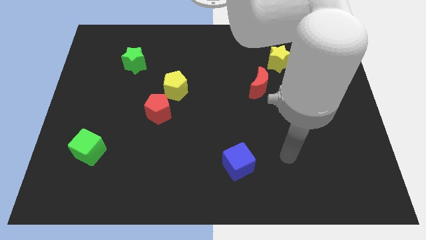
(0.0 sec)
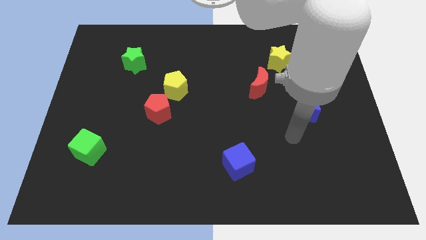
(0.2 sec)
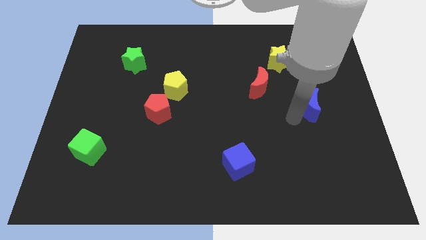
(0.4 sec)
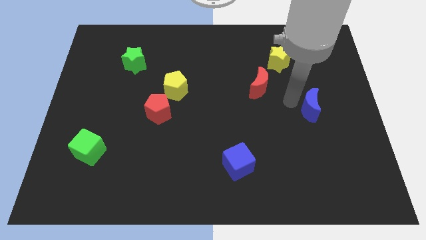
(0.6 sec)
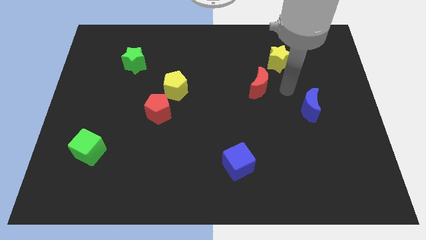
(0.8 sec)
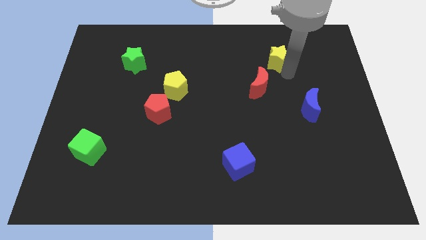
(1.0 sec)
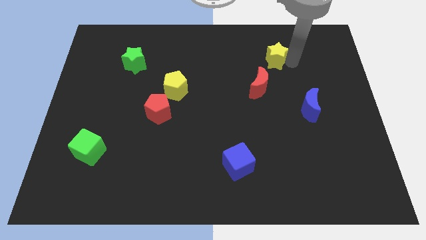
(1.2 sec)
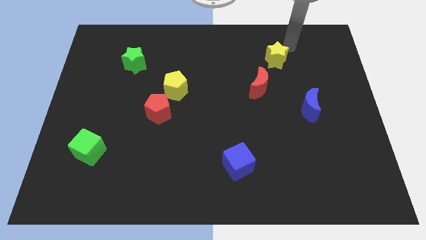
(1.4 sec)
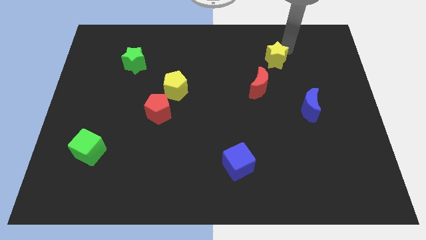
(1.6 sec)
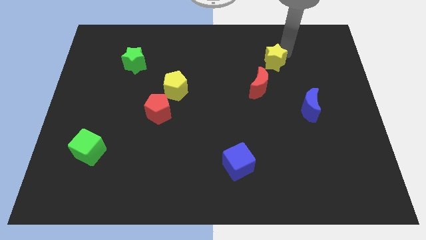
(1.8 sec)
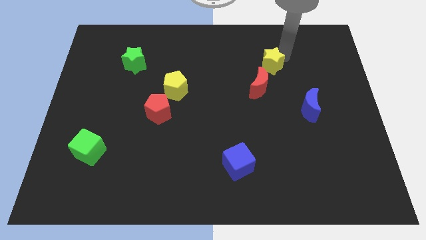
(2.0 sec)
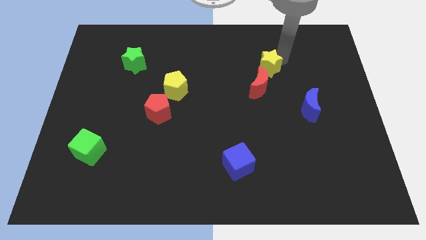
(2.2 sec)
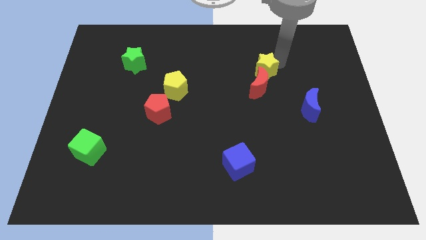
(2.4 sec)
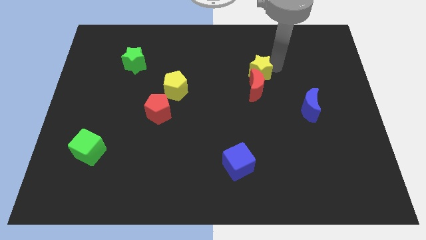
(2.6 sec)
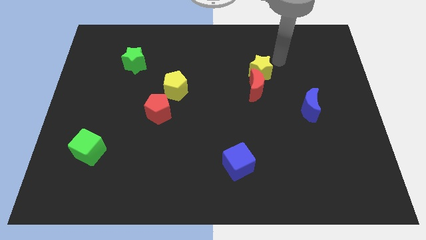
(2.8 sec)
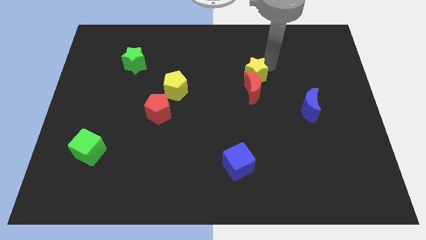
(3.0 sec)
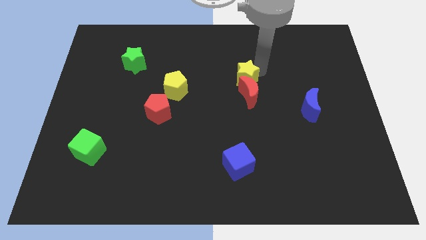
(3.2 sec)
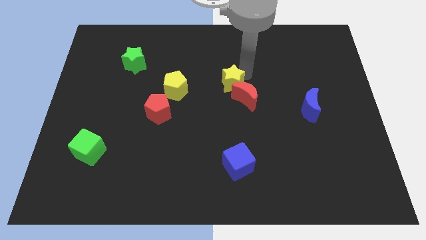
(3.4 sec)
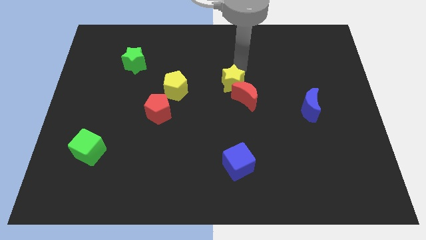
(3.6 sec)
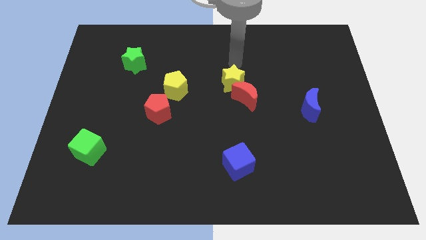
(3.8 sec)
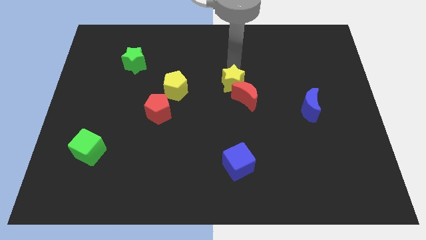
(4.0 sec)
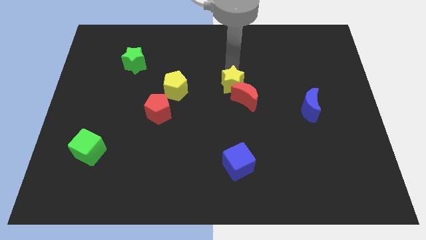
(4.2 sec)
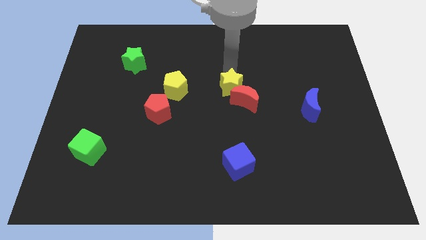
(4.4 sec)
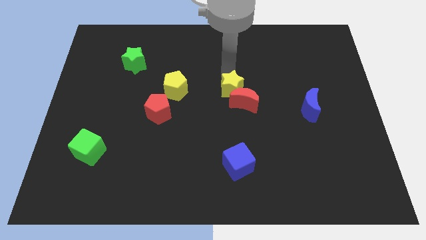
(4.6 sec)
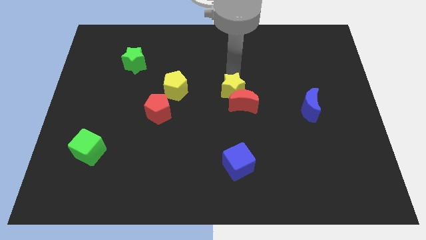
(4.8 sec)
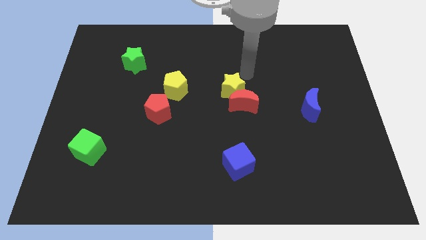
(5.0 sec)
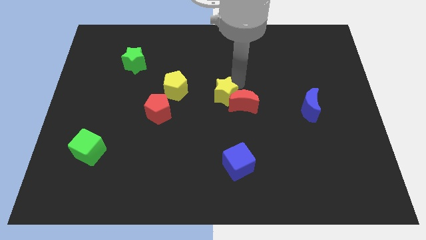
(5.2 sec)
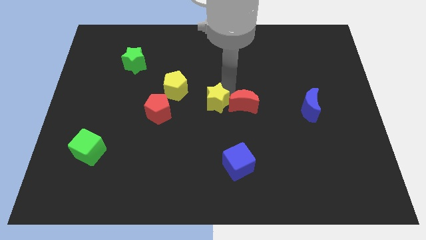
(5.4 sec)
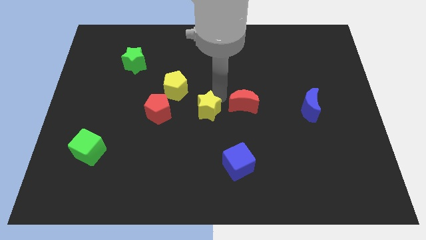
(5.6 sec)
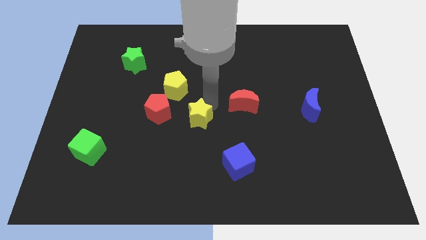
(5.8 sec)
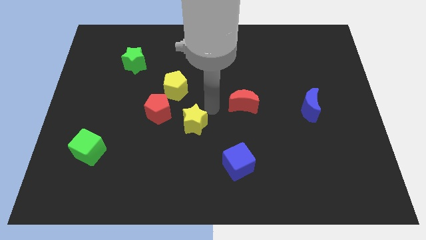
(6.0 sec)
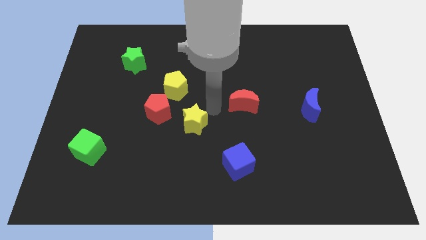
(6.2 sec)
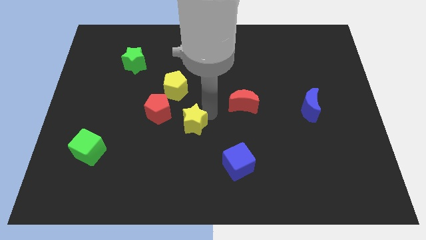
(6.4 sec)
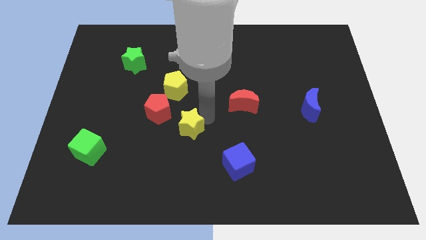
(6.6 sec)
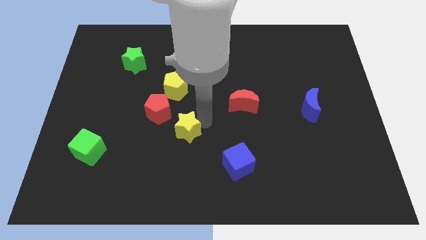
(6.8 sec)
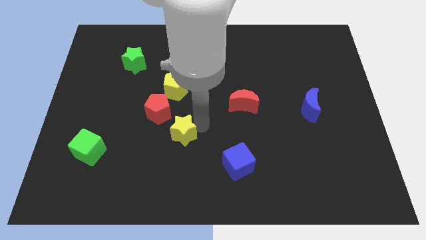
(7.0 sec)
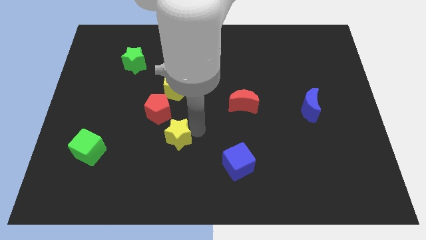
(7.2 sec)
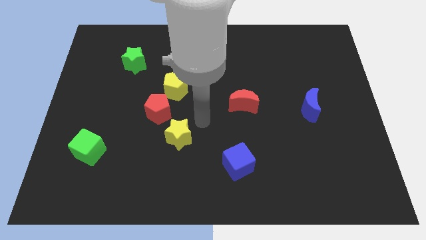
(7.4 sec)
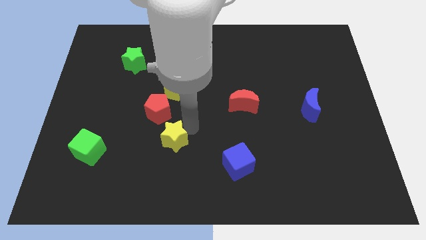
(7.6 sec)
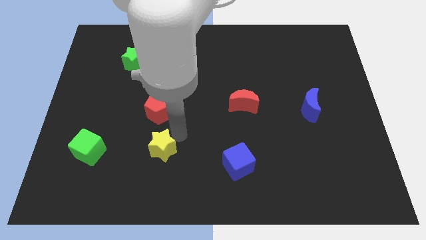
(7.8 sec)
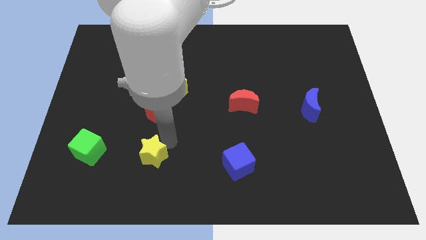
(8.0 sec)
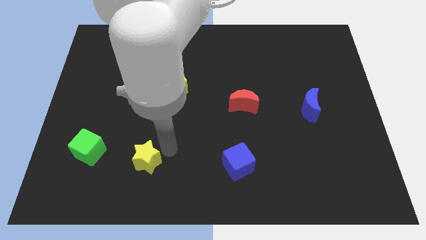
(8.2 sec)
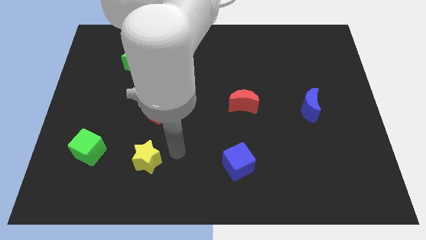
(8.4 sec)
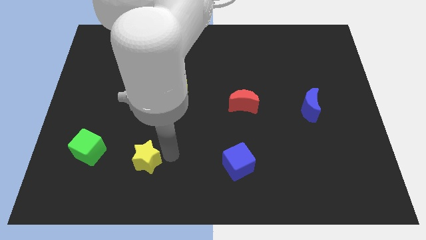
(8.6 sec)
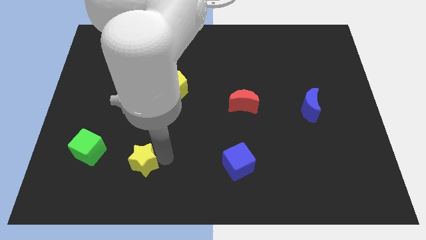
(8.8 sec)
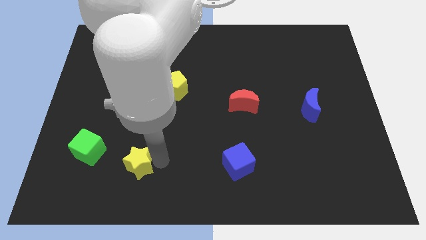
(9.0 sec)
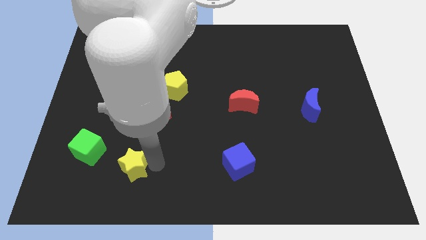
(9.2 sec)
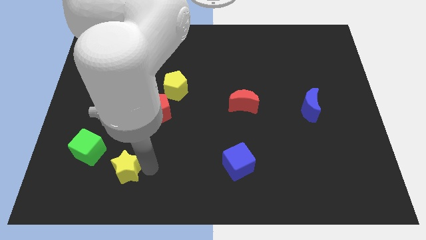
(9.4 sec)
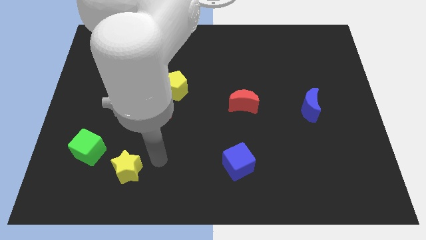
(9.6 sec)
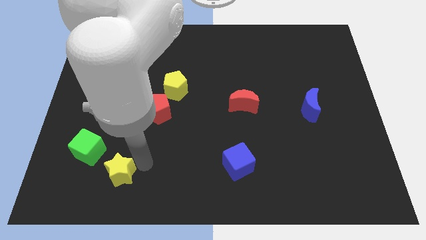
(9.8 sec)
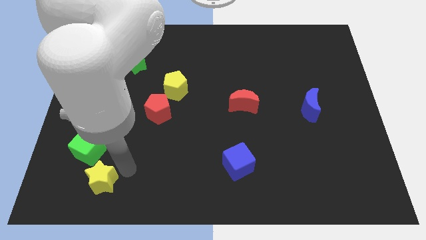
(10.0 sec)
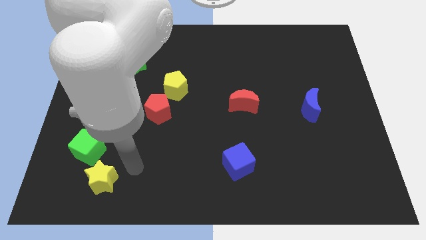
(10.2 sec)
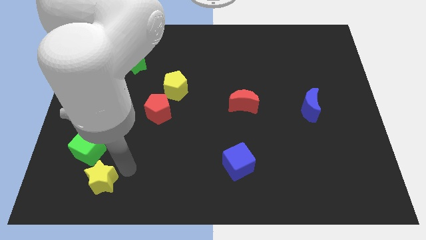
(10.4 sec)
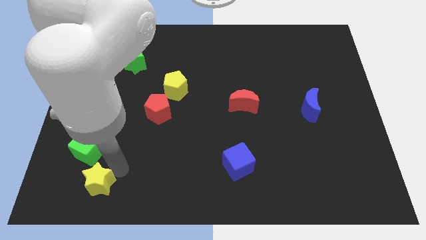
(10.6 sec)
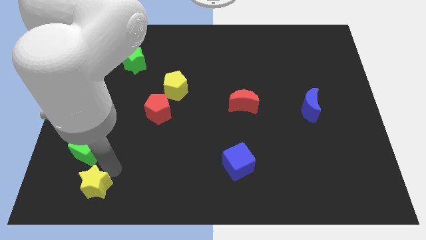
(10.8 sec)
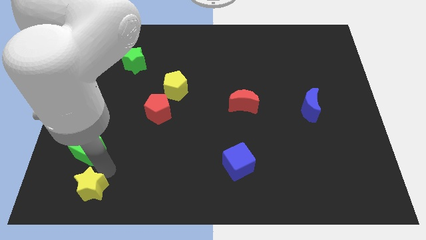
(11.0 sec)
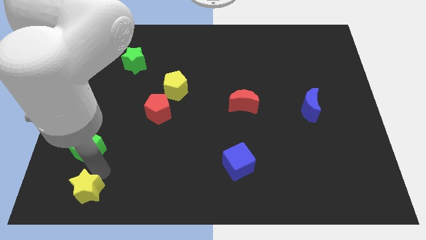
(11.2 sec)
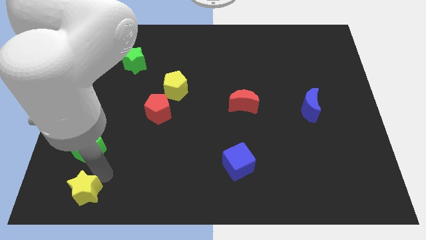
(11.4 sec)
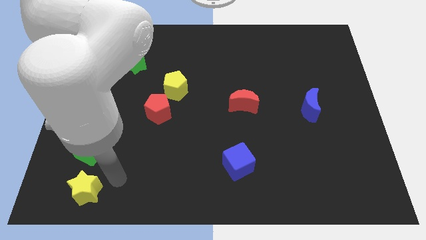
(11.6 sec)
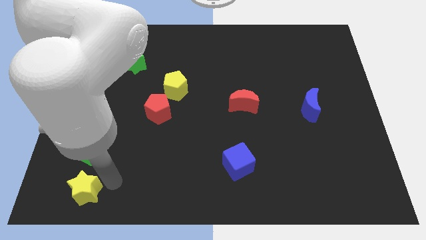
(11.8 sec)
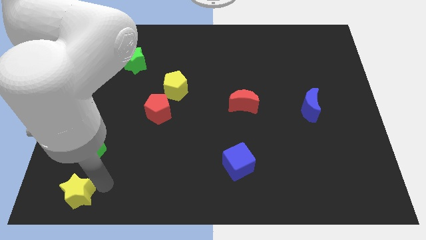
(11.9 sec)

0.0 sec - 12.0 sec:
put the yellow star to the lower left corner

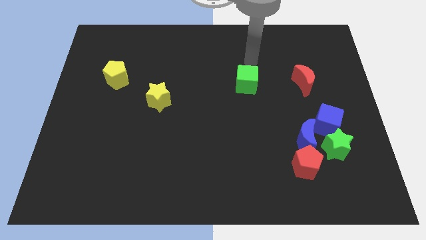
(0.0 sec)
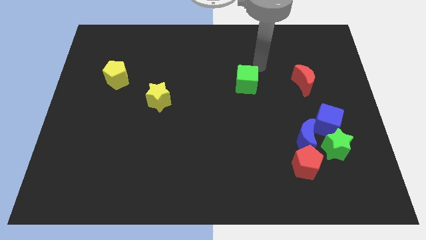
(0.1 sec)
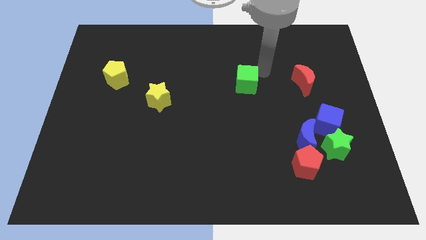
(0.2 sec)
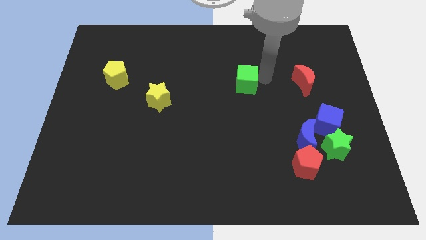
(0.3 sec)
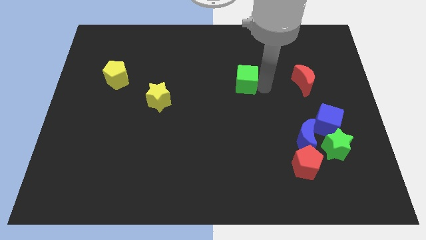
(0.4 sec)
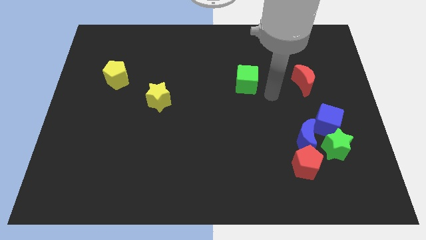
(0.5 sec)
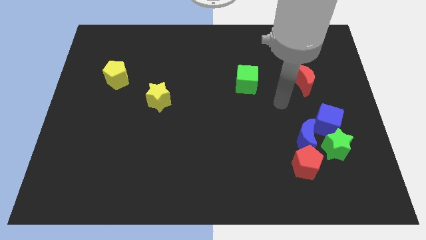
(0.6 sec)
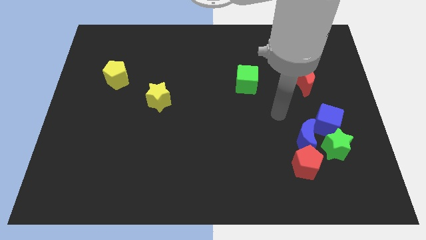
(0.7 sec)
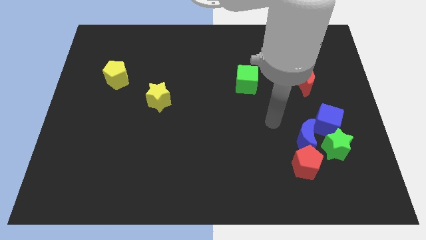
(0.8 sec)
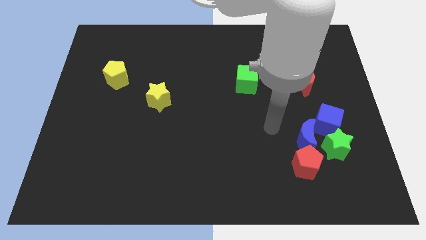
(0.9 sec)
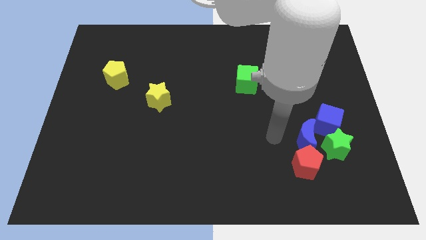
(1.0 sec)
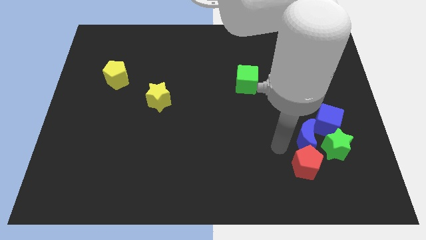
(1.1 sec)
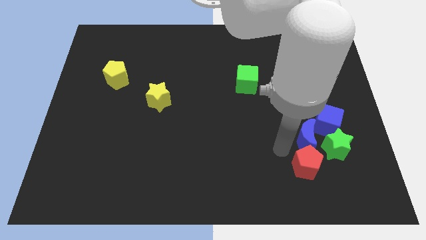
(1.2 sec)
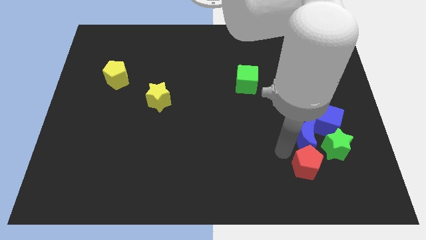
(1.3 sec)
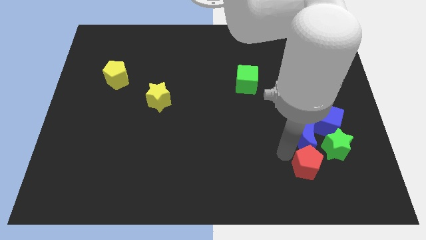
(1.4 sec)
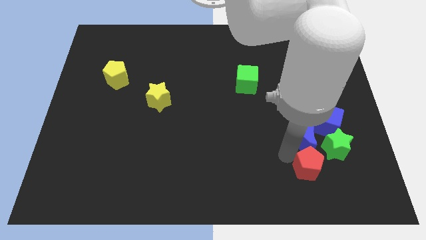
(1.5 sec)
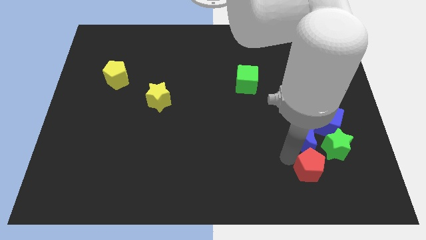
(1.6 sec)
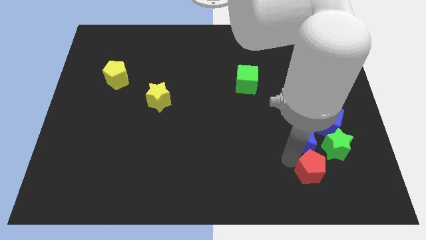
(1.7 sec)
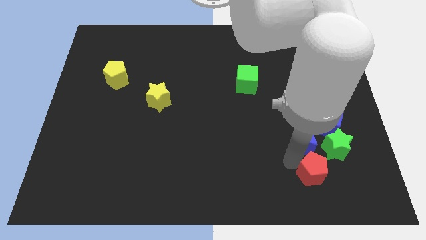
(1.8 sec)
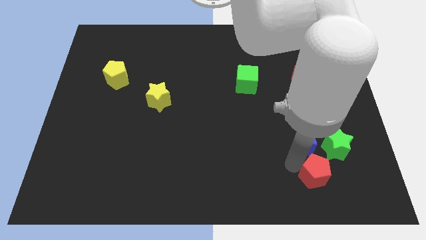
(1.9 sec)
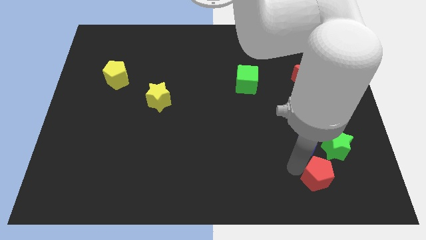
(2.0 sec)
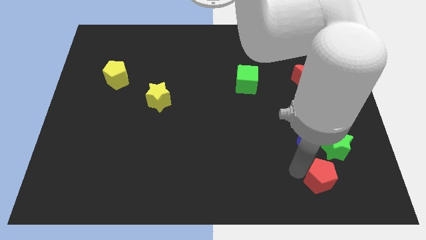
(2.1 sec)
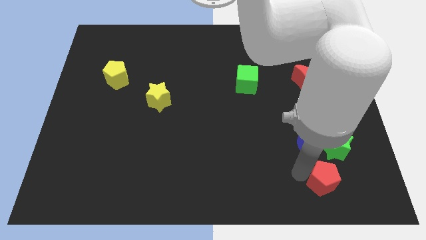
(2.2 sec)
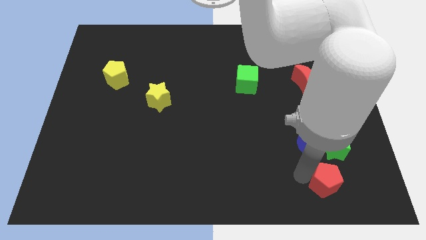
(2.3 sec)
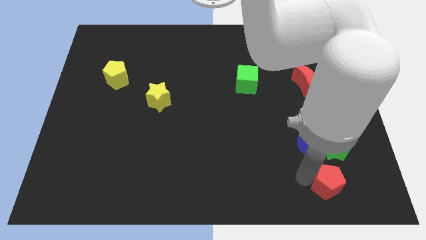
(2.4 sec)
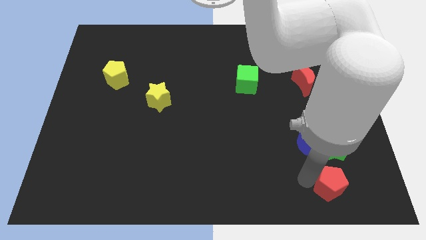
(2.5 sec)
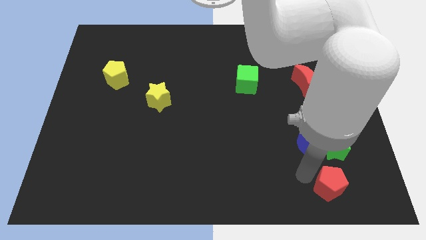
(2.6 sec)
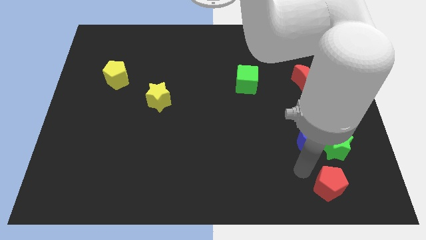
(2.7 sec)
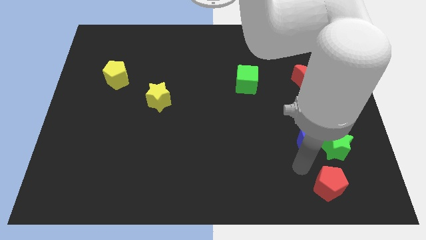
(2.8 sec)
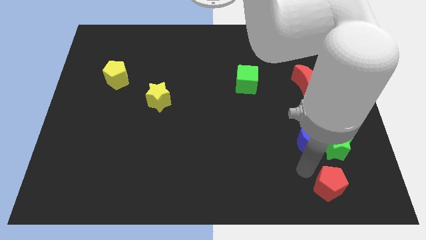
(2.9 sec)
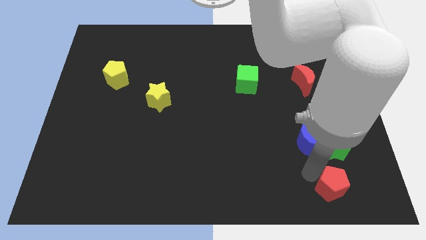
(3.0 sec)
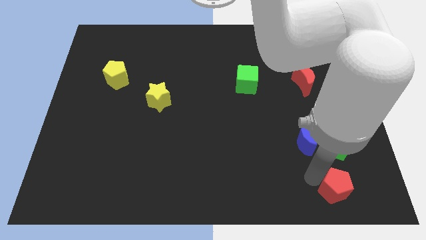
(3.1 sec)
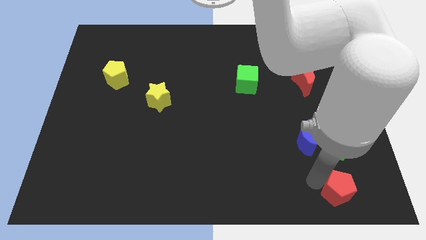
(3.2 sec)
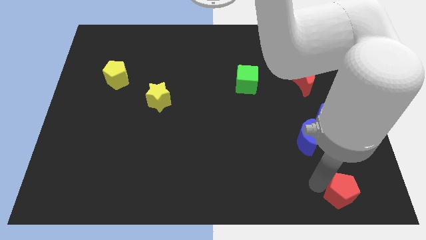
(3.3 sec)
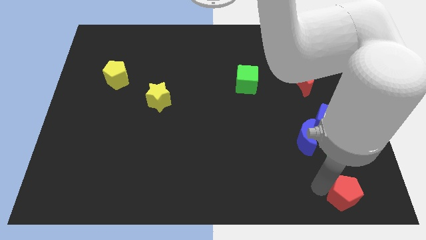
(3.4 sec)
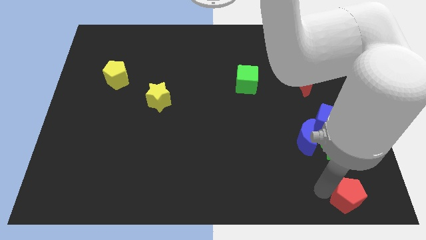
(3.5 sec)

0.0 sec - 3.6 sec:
put the red pentagon to the bottom right
